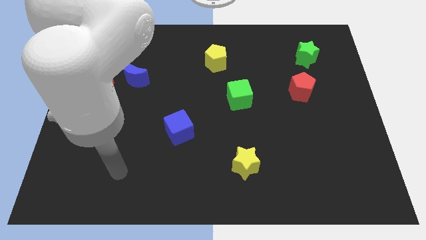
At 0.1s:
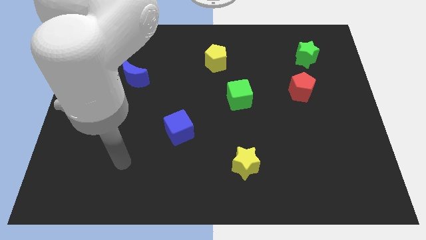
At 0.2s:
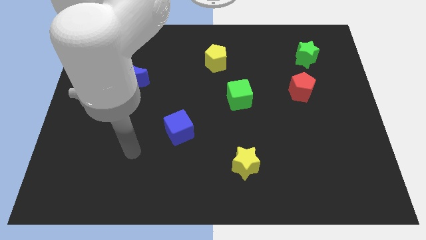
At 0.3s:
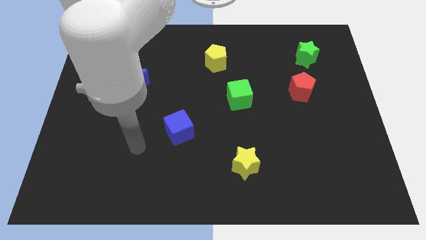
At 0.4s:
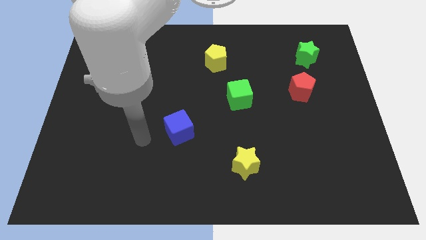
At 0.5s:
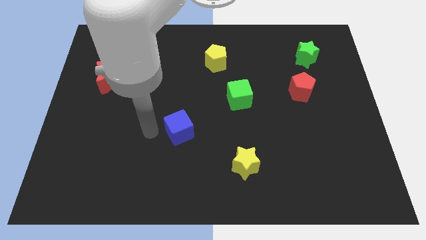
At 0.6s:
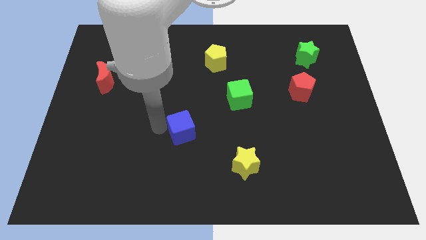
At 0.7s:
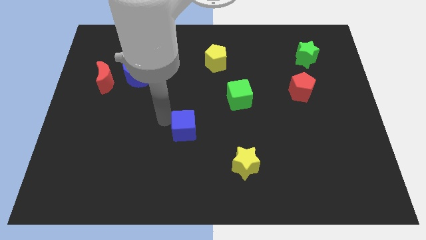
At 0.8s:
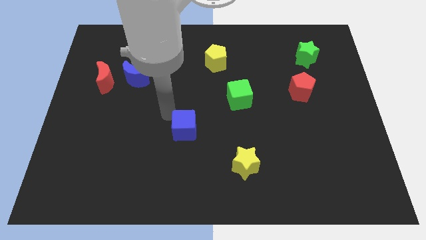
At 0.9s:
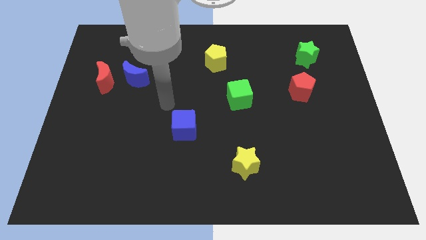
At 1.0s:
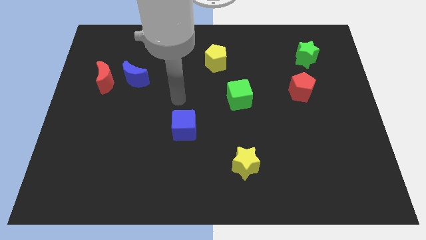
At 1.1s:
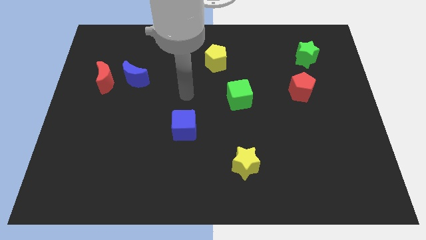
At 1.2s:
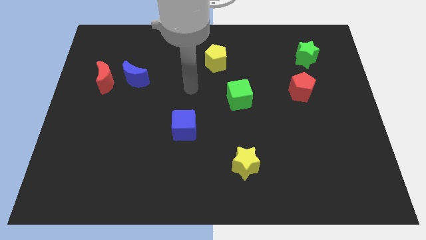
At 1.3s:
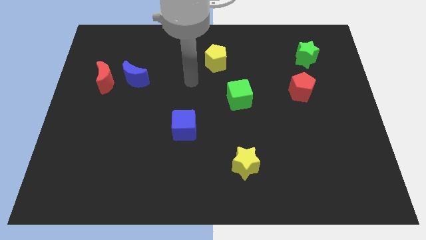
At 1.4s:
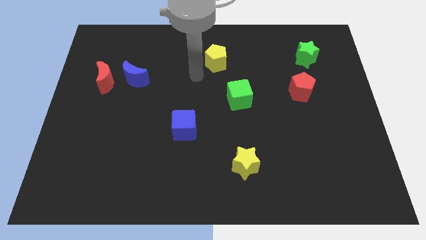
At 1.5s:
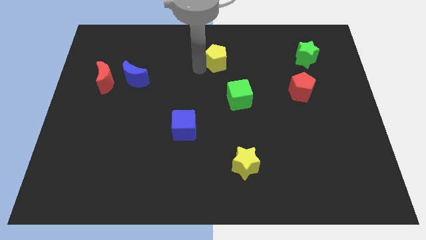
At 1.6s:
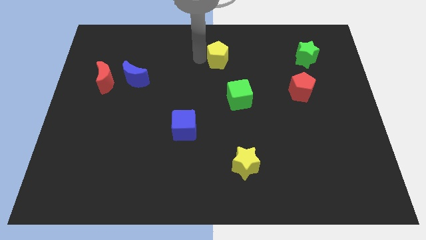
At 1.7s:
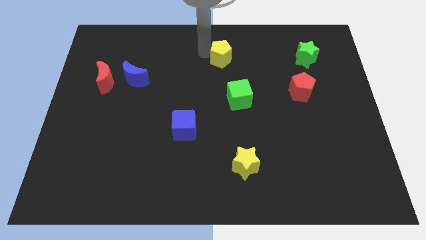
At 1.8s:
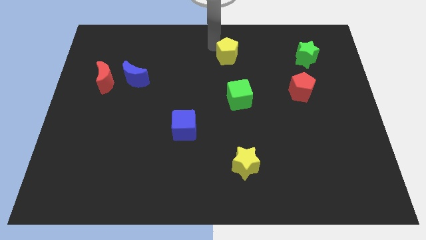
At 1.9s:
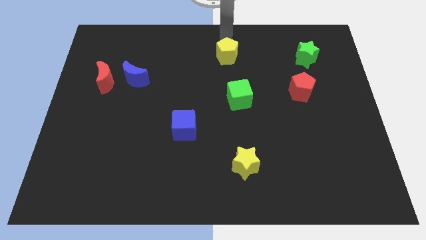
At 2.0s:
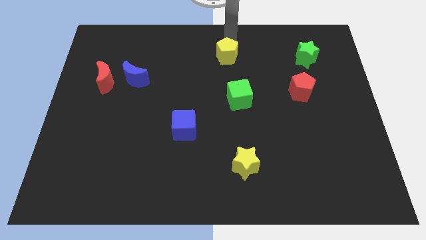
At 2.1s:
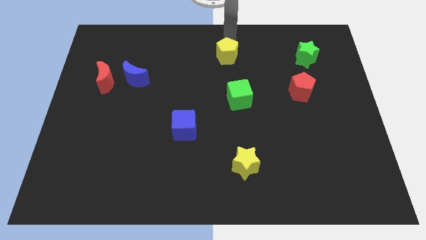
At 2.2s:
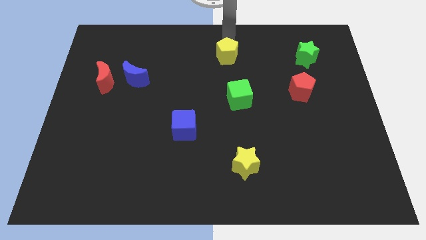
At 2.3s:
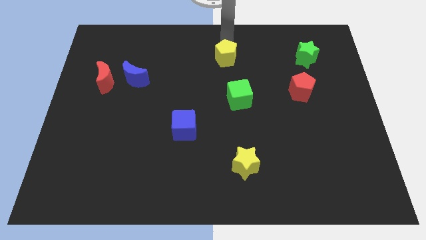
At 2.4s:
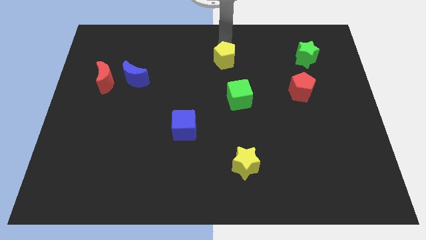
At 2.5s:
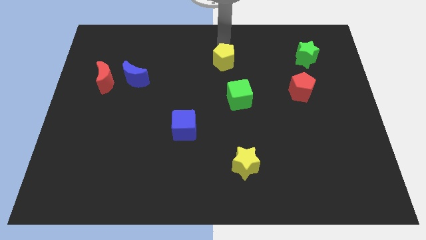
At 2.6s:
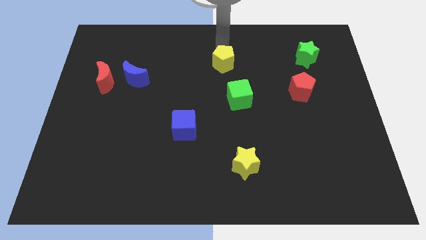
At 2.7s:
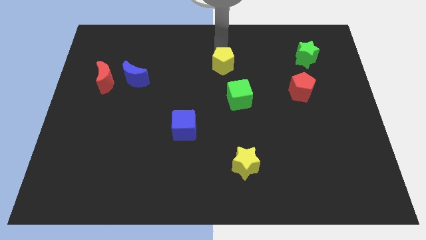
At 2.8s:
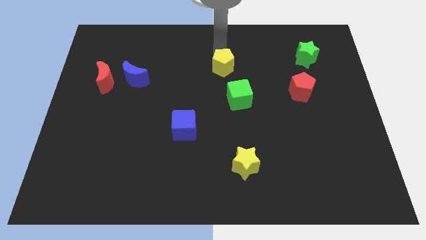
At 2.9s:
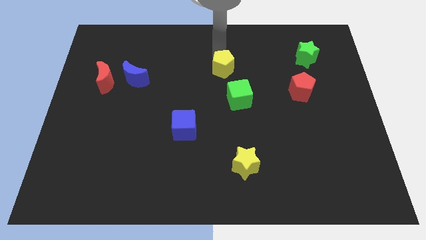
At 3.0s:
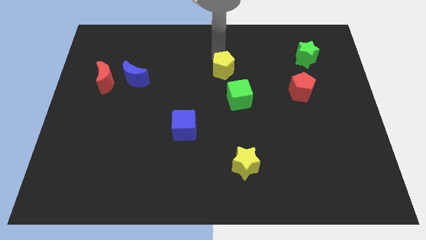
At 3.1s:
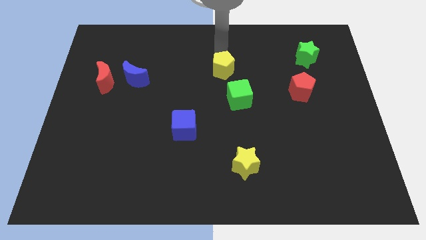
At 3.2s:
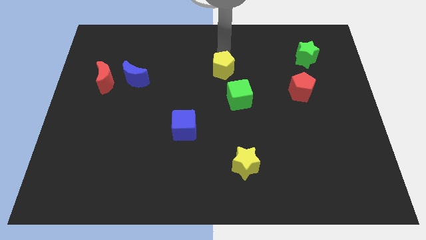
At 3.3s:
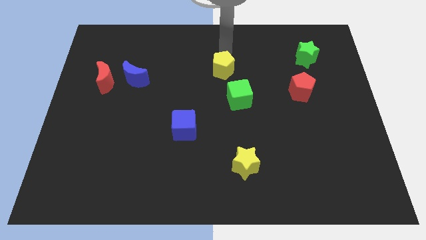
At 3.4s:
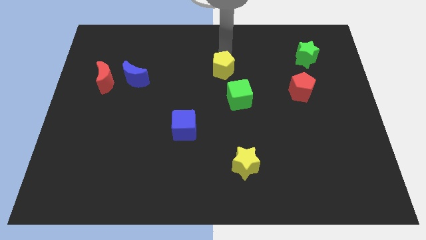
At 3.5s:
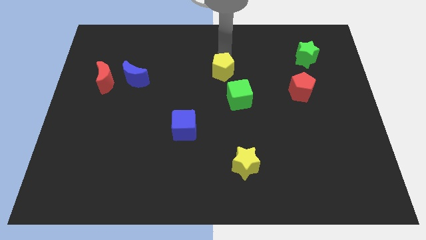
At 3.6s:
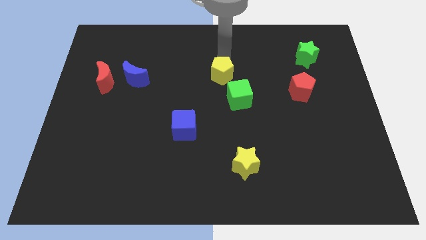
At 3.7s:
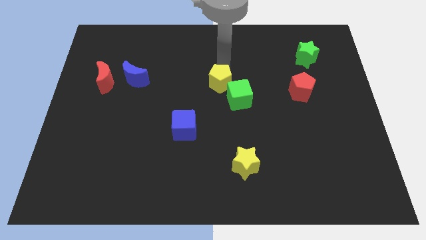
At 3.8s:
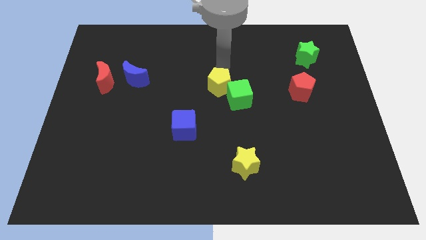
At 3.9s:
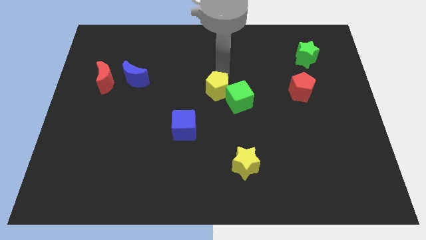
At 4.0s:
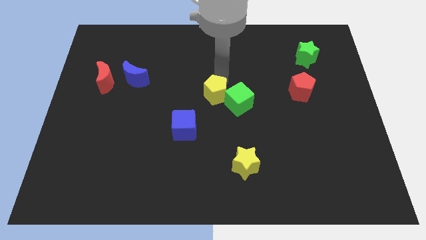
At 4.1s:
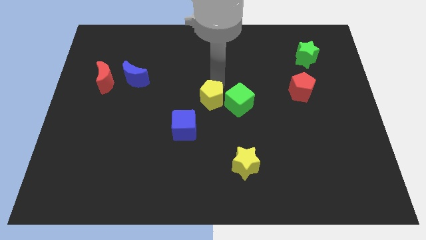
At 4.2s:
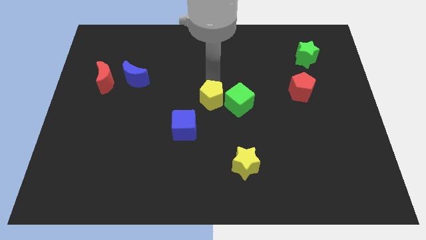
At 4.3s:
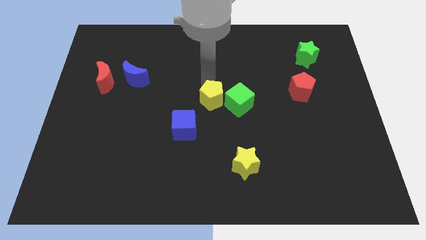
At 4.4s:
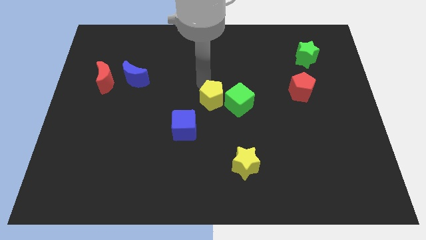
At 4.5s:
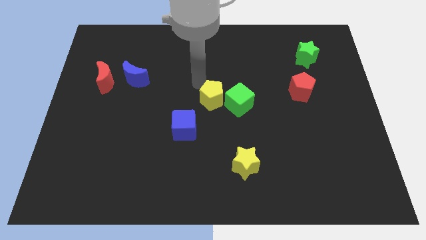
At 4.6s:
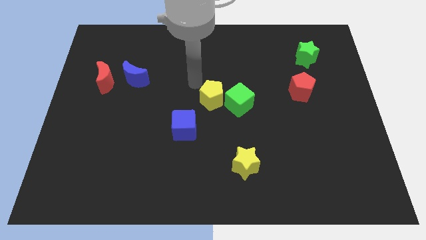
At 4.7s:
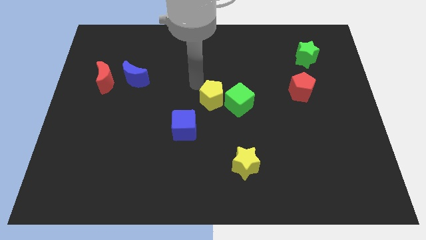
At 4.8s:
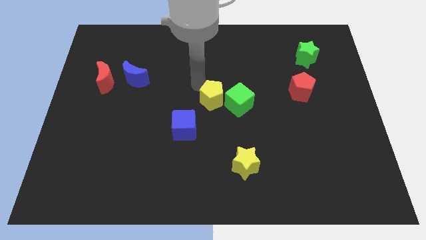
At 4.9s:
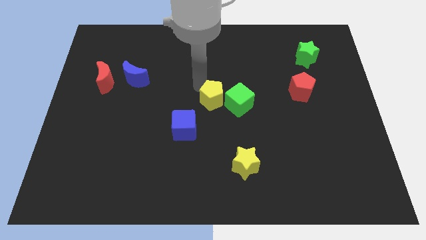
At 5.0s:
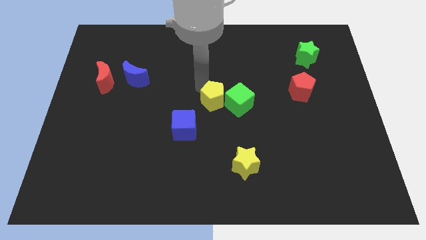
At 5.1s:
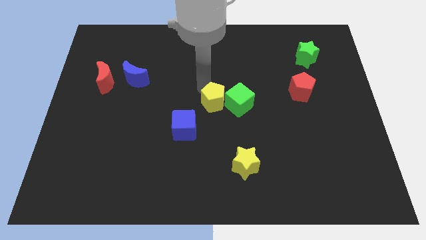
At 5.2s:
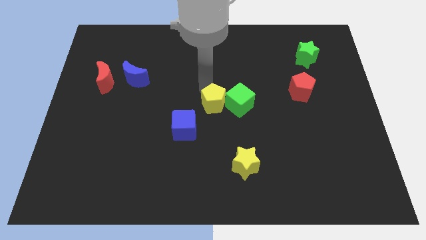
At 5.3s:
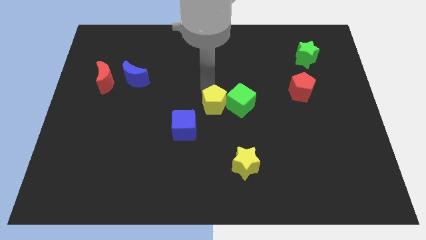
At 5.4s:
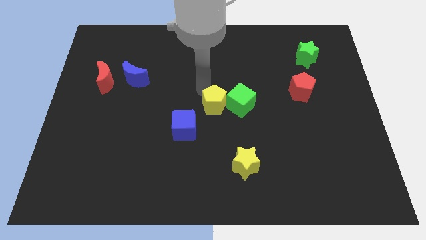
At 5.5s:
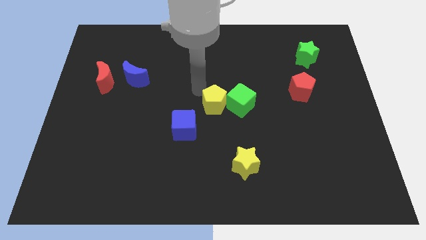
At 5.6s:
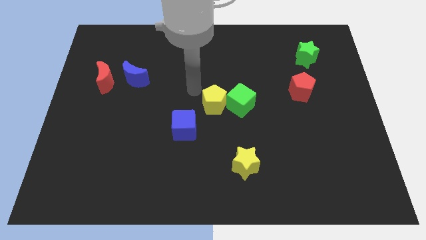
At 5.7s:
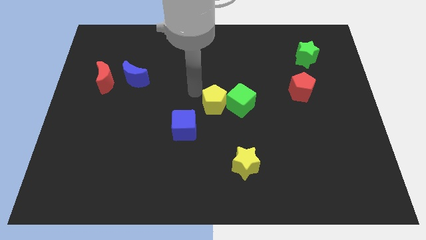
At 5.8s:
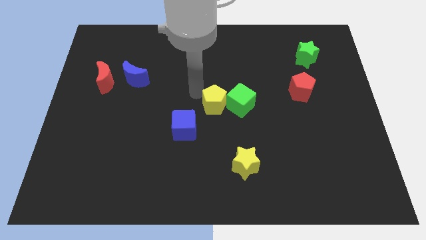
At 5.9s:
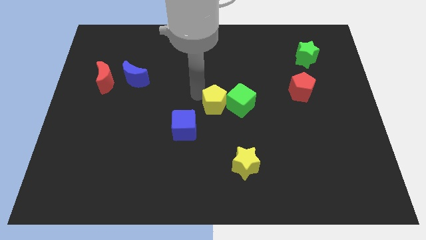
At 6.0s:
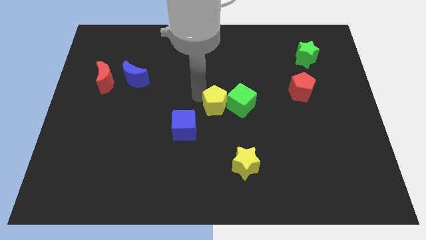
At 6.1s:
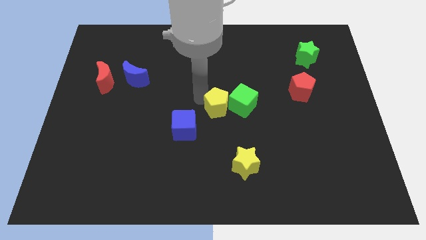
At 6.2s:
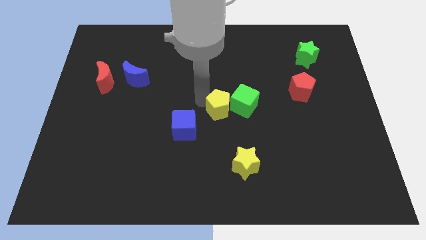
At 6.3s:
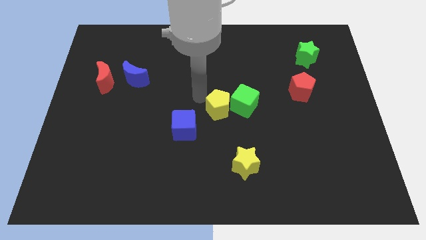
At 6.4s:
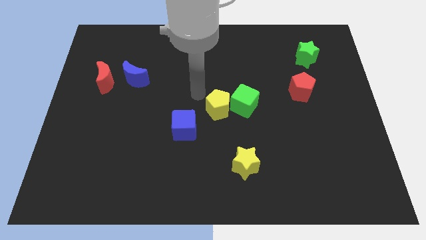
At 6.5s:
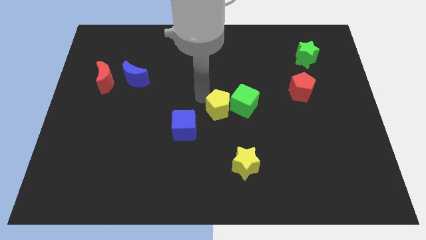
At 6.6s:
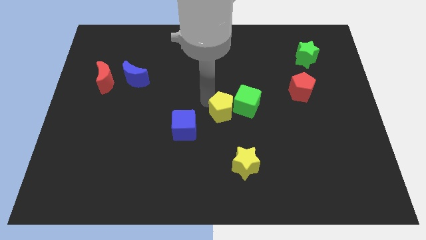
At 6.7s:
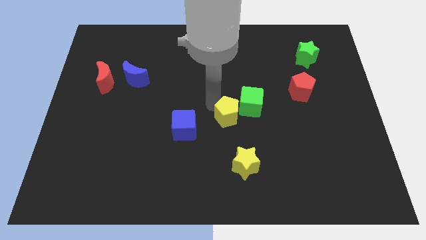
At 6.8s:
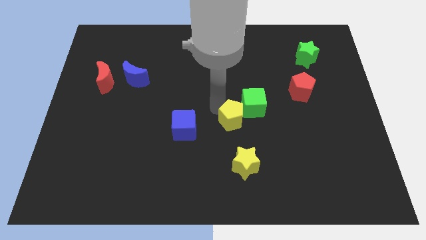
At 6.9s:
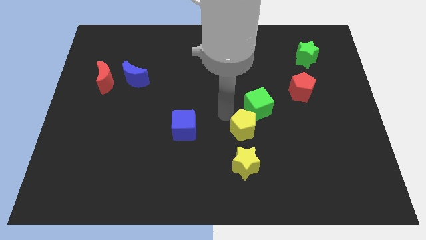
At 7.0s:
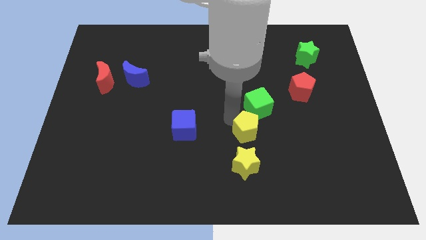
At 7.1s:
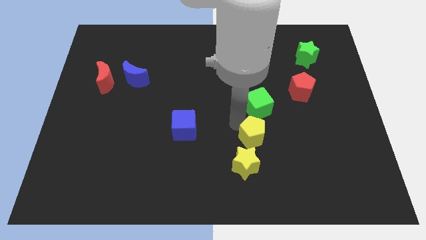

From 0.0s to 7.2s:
push the yellow pentagon diagonally up and to the right of the yellow star

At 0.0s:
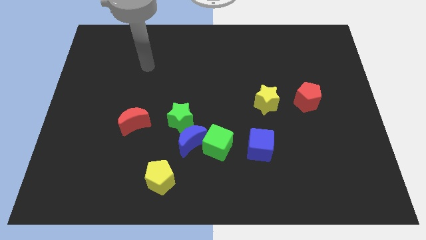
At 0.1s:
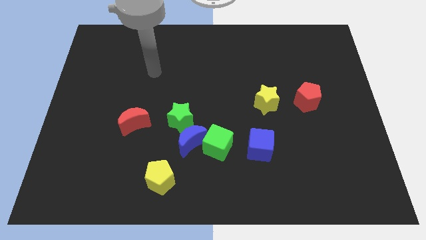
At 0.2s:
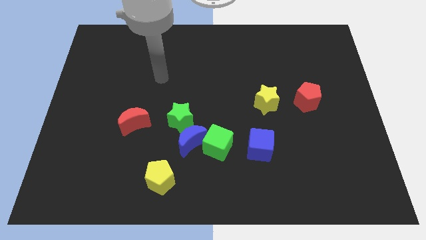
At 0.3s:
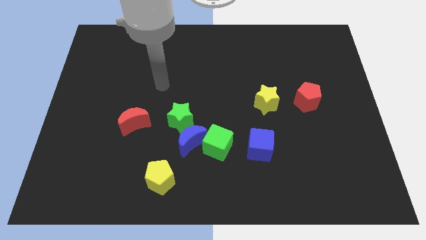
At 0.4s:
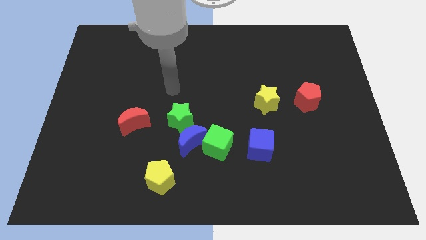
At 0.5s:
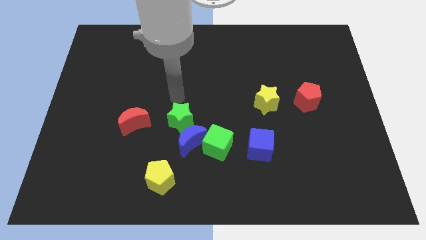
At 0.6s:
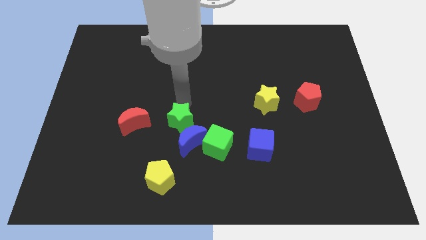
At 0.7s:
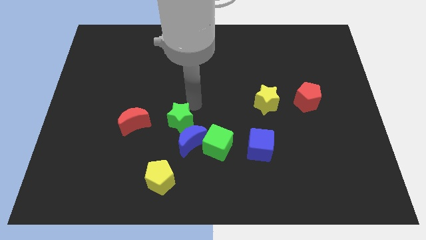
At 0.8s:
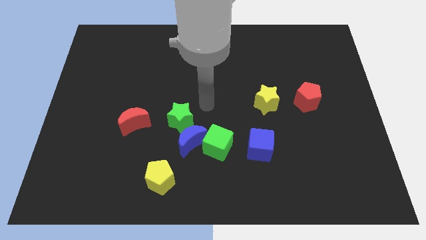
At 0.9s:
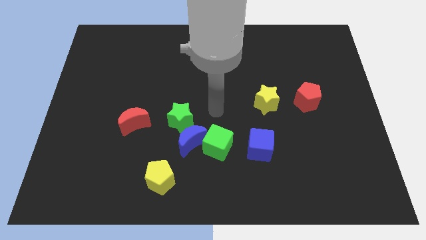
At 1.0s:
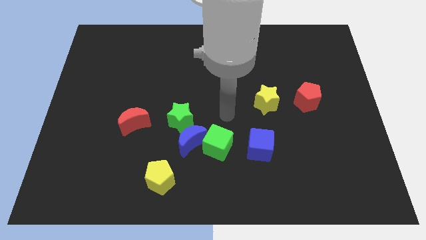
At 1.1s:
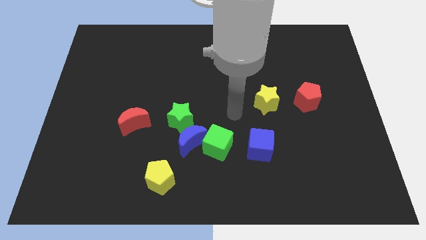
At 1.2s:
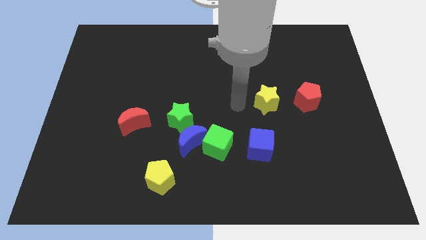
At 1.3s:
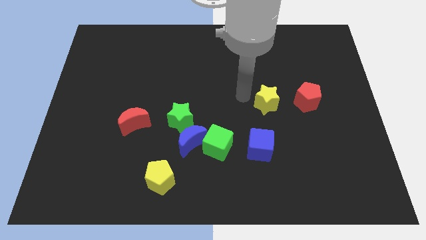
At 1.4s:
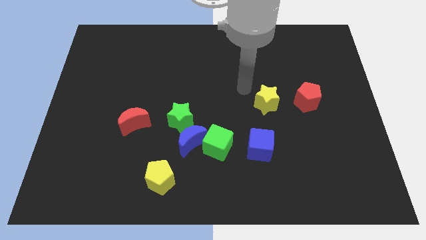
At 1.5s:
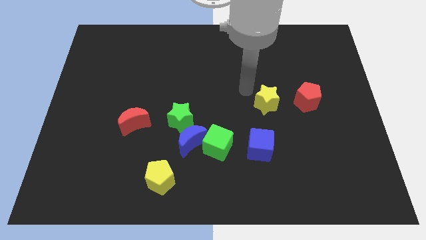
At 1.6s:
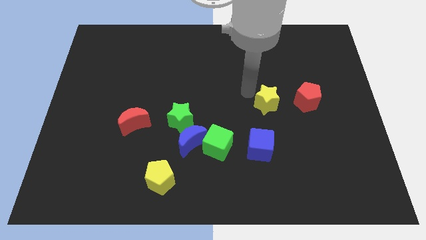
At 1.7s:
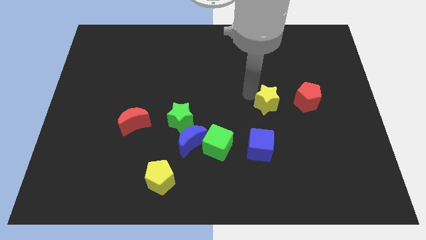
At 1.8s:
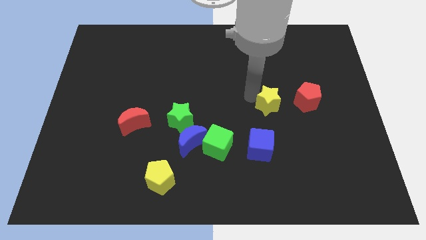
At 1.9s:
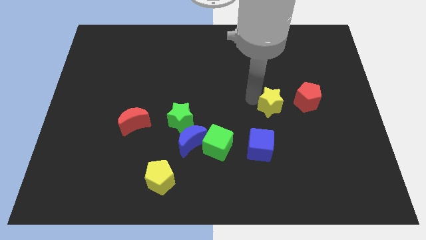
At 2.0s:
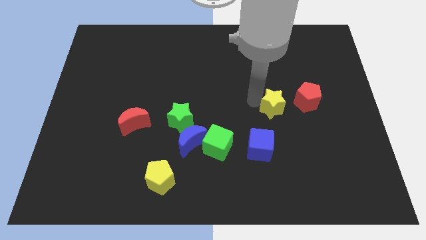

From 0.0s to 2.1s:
slide the yellow star to the bottom left side of the red pentagon
